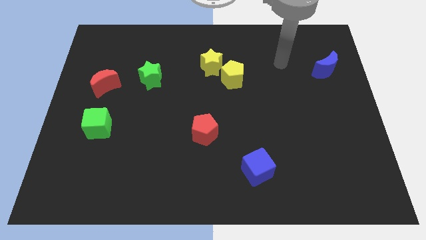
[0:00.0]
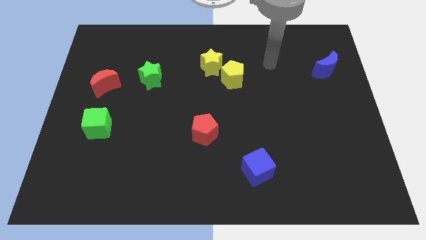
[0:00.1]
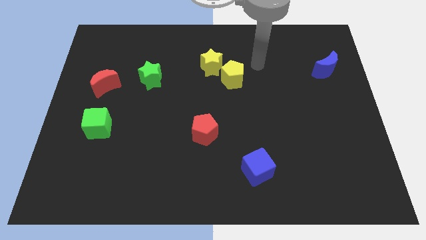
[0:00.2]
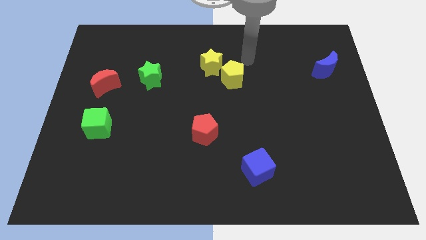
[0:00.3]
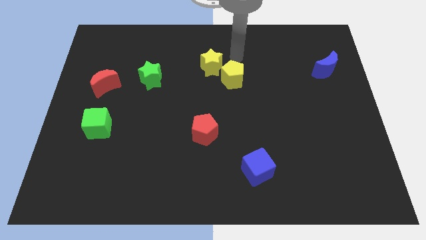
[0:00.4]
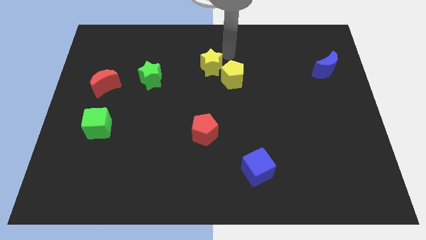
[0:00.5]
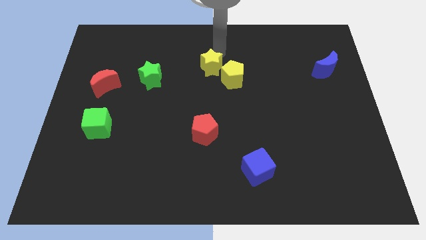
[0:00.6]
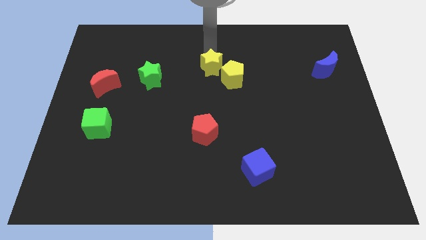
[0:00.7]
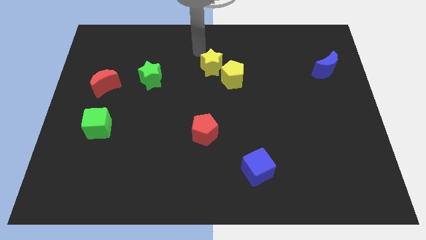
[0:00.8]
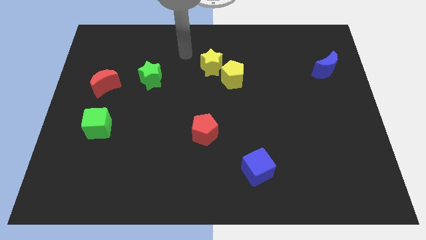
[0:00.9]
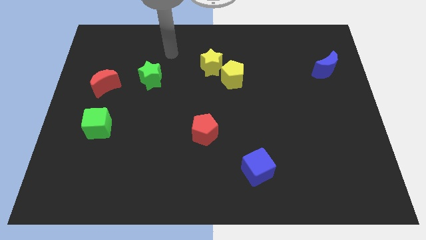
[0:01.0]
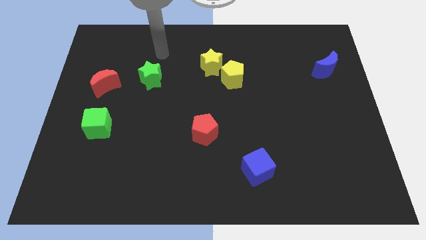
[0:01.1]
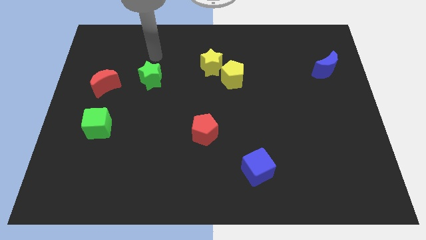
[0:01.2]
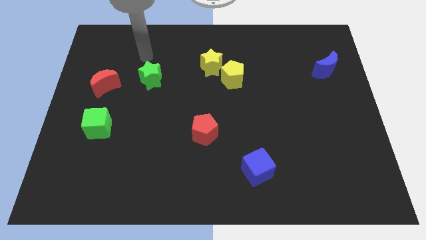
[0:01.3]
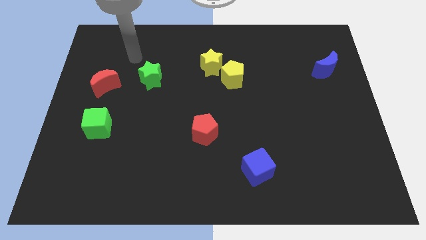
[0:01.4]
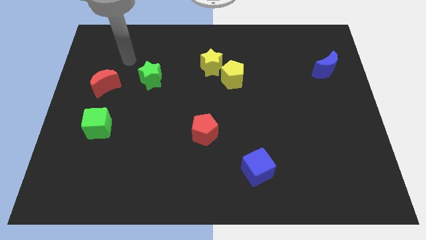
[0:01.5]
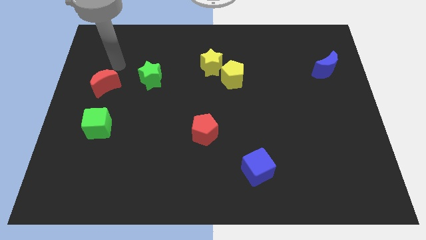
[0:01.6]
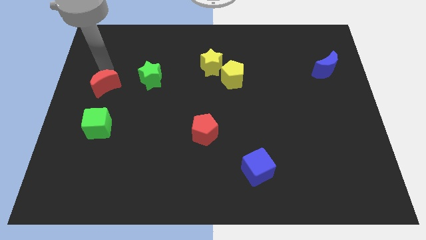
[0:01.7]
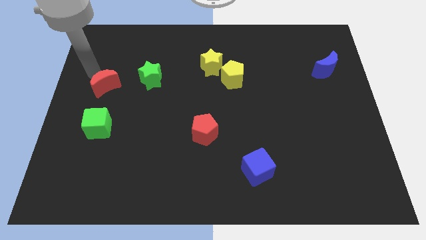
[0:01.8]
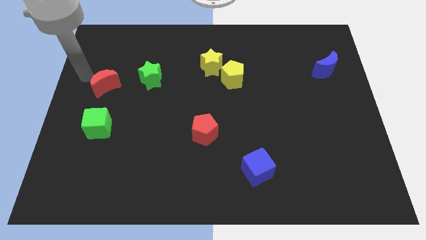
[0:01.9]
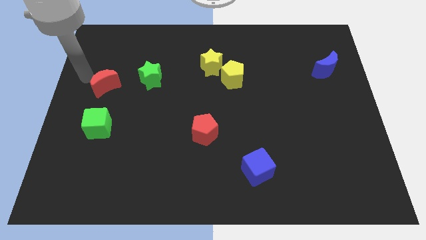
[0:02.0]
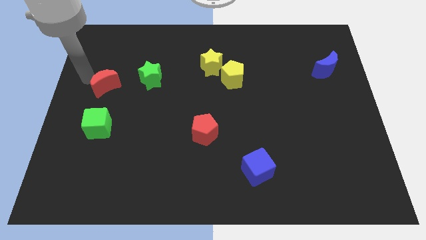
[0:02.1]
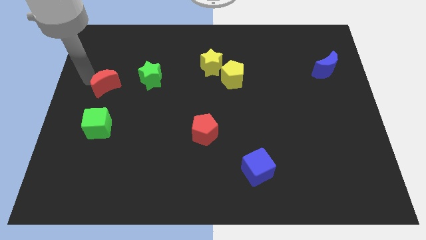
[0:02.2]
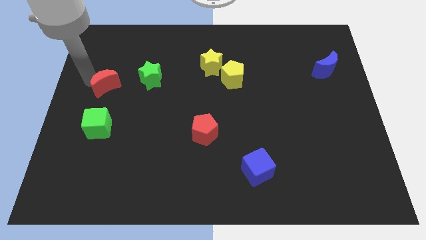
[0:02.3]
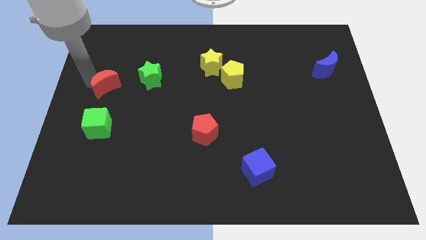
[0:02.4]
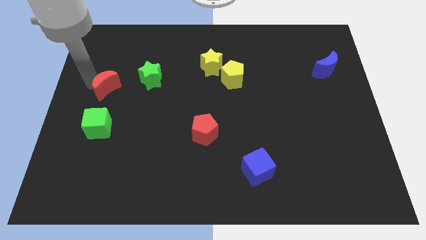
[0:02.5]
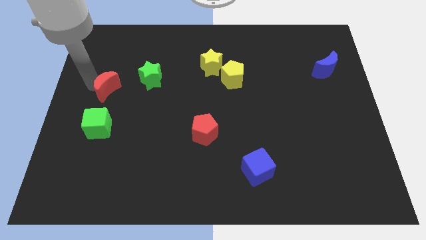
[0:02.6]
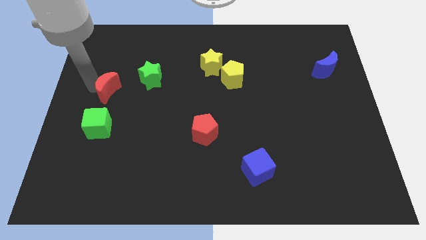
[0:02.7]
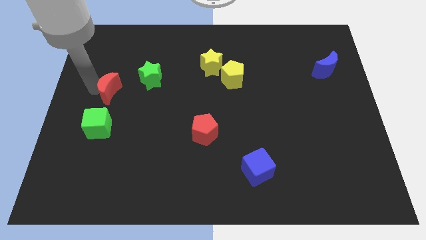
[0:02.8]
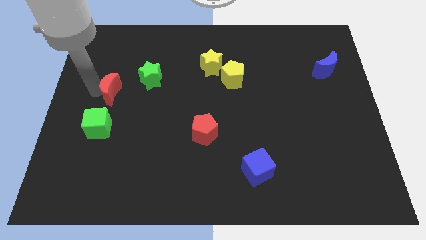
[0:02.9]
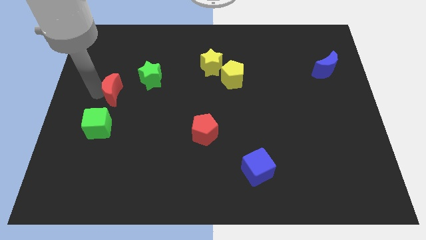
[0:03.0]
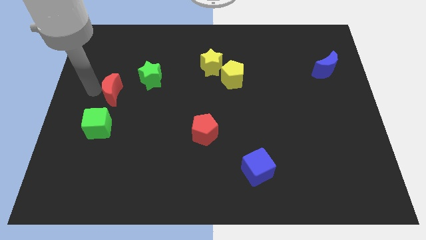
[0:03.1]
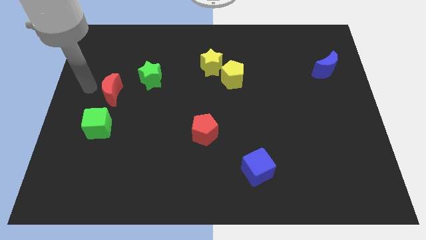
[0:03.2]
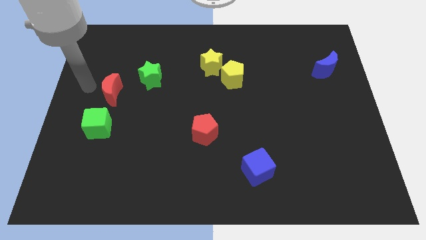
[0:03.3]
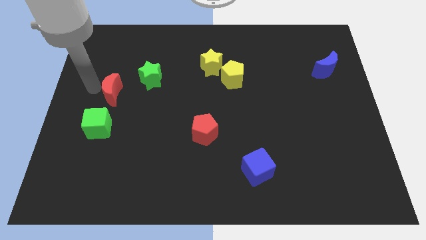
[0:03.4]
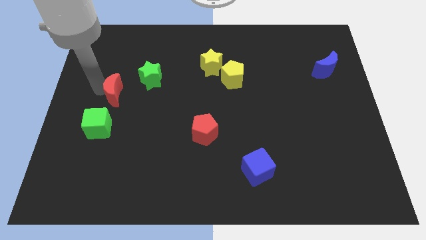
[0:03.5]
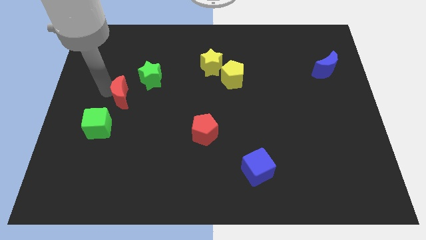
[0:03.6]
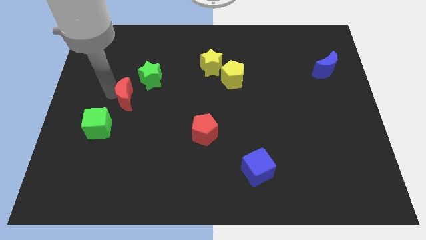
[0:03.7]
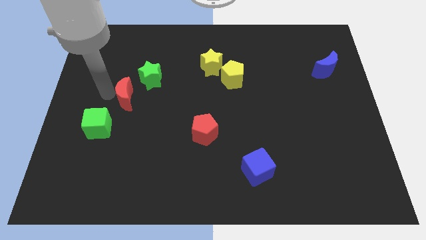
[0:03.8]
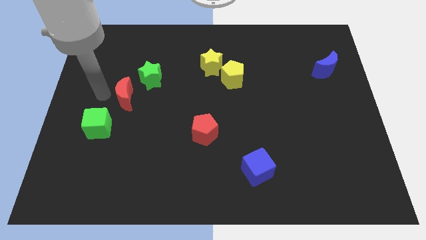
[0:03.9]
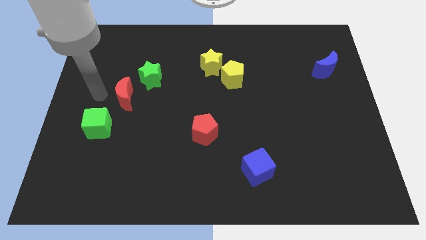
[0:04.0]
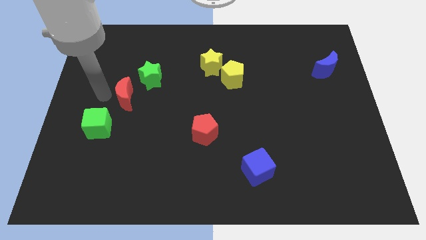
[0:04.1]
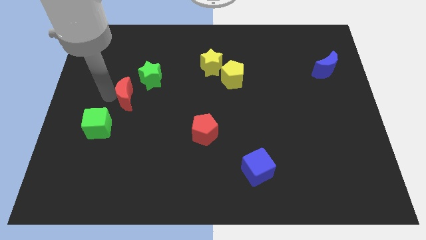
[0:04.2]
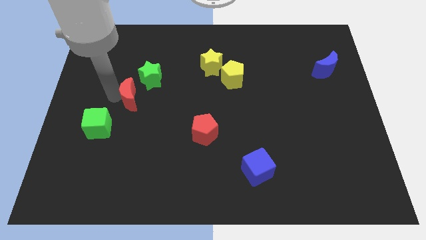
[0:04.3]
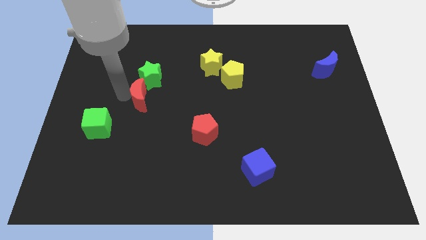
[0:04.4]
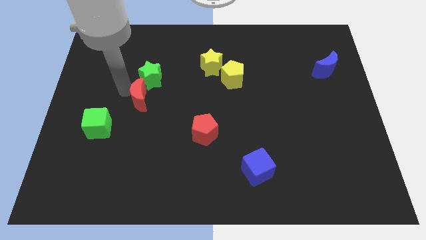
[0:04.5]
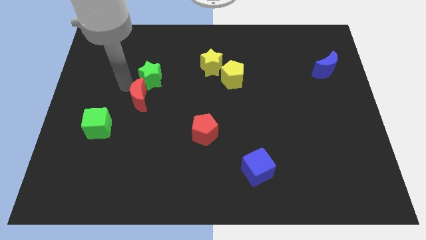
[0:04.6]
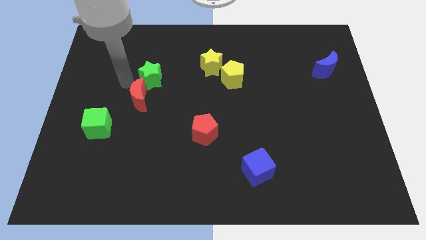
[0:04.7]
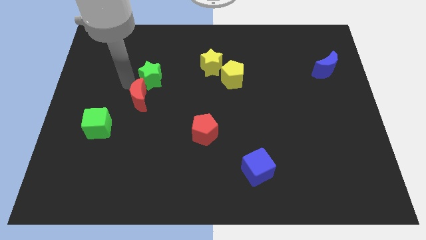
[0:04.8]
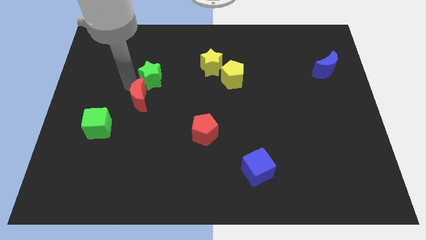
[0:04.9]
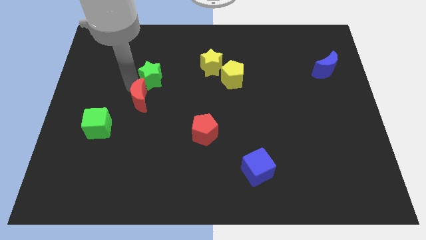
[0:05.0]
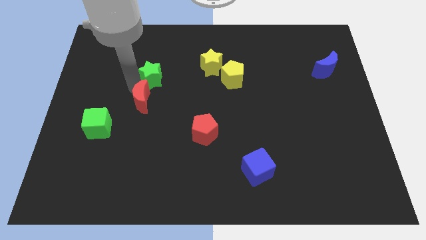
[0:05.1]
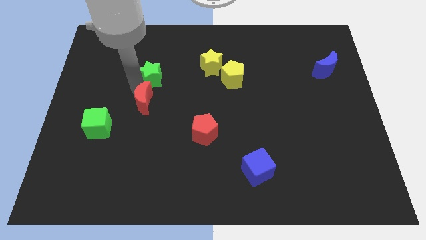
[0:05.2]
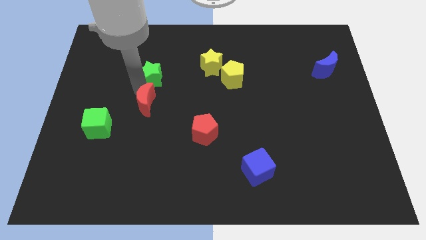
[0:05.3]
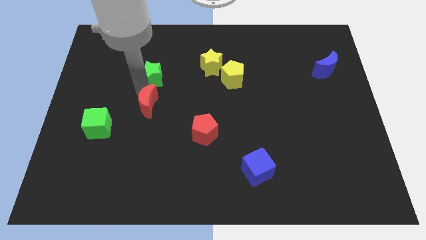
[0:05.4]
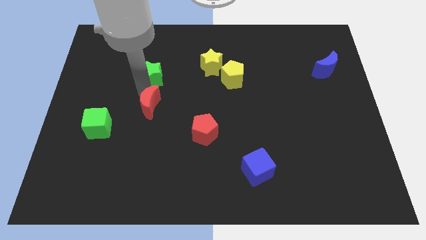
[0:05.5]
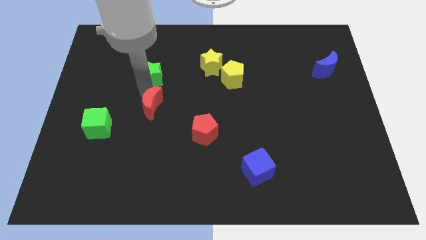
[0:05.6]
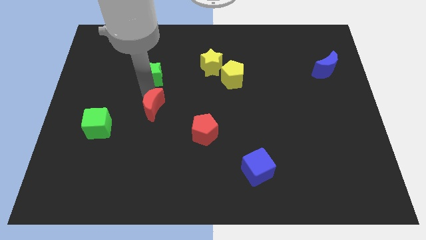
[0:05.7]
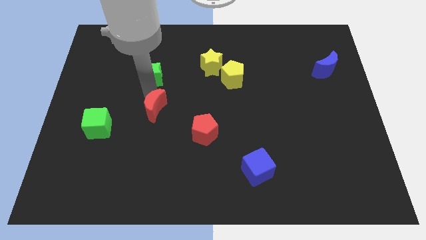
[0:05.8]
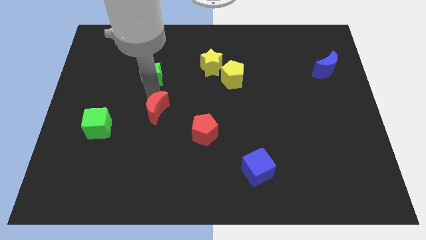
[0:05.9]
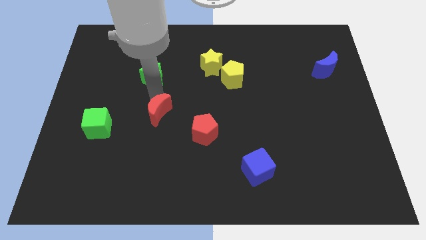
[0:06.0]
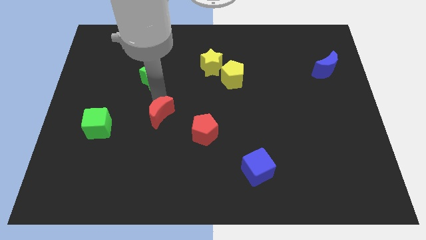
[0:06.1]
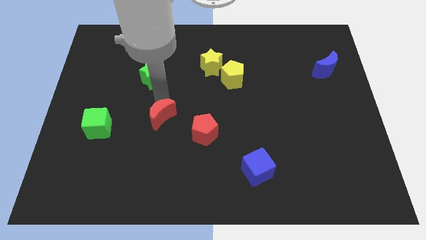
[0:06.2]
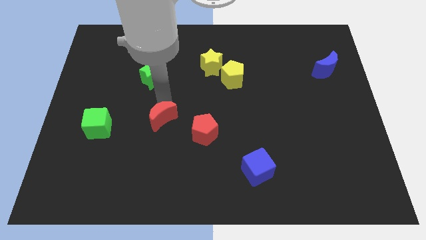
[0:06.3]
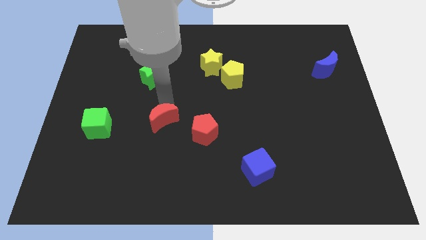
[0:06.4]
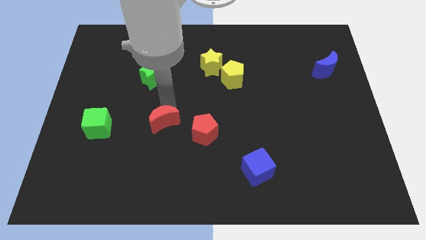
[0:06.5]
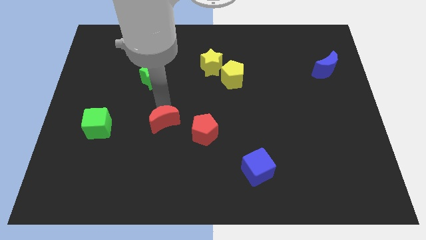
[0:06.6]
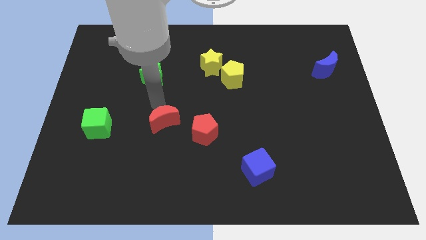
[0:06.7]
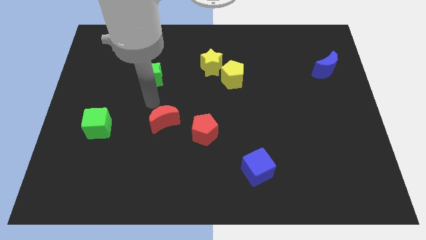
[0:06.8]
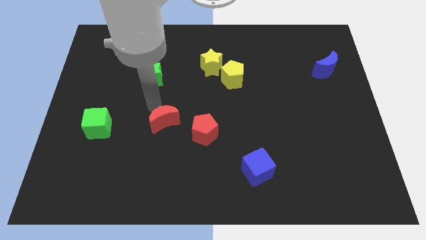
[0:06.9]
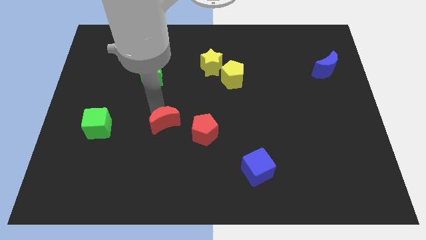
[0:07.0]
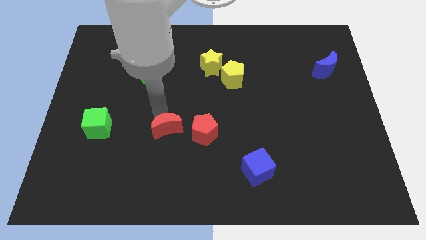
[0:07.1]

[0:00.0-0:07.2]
slide the red moon downwards and to the right diagonally

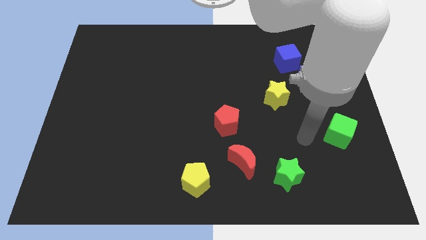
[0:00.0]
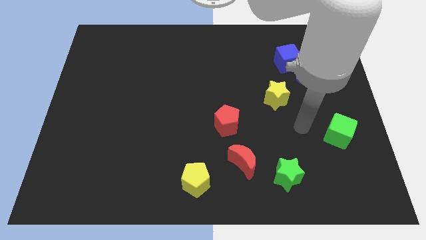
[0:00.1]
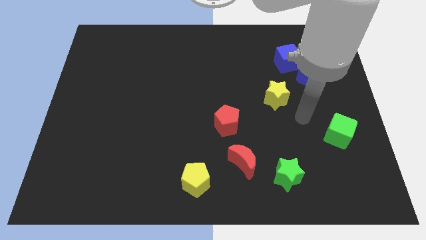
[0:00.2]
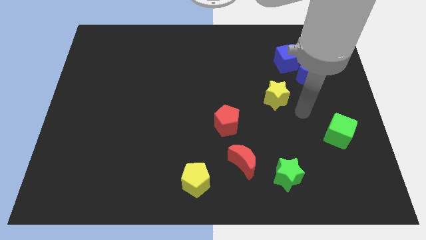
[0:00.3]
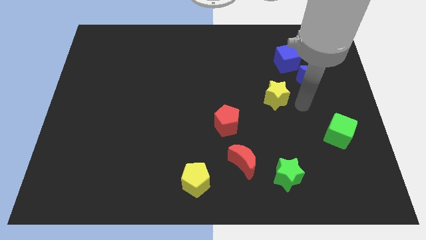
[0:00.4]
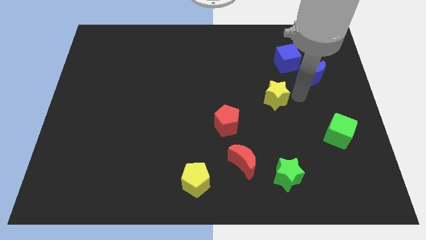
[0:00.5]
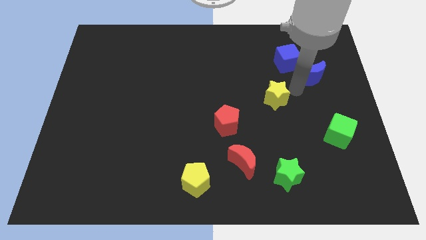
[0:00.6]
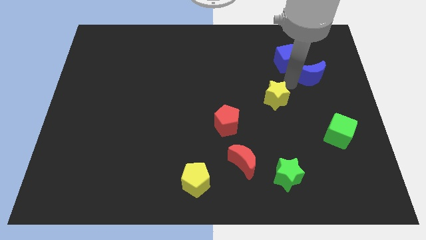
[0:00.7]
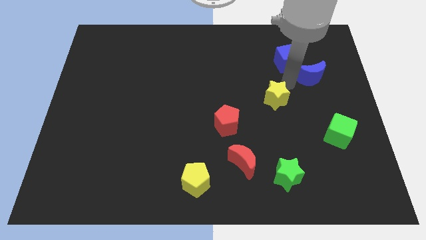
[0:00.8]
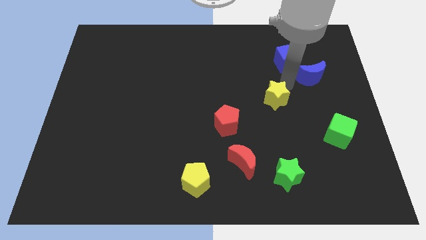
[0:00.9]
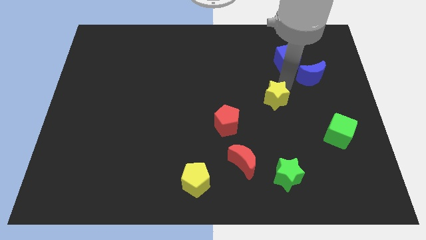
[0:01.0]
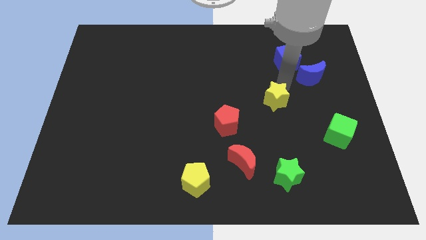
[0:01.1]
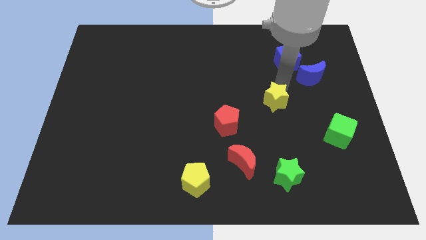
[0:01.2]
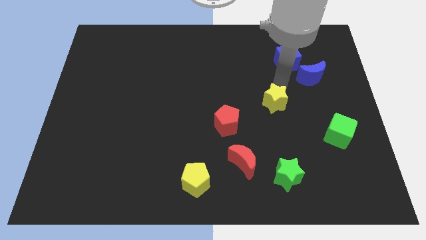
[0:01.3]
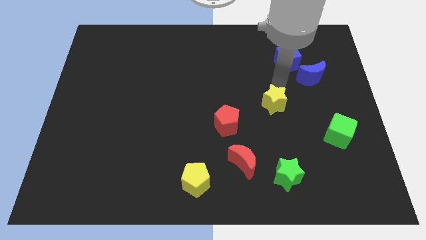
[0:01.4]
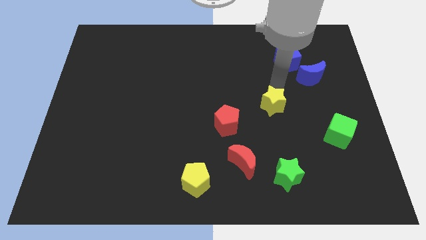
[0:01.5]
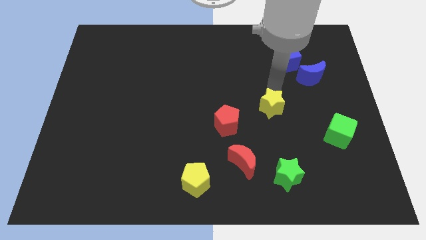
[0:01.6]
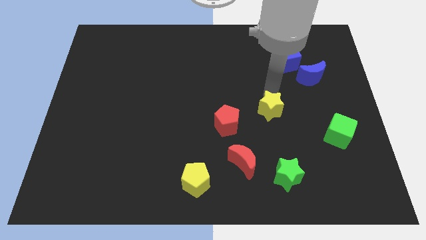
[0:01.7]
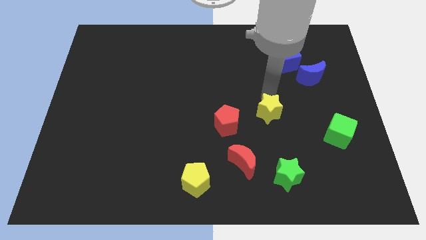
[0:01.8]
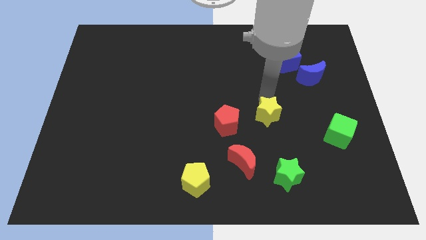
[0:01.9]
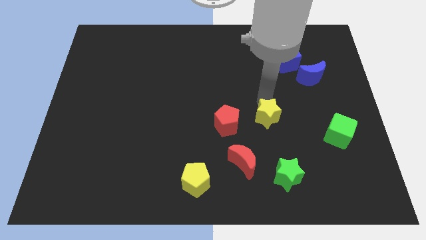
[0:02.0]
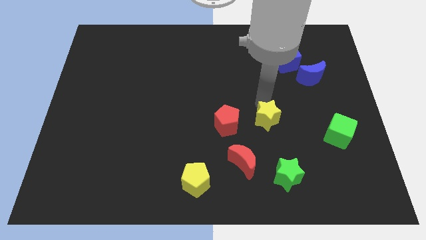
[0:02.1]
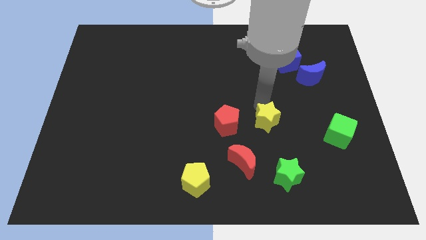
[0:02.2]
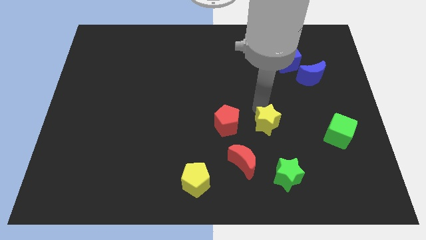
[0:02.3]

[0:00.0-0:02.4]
slightly slide the yellow star downwards and to the left diagonally
